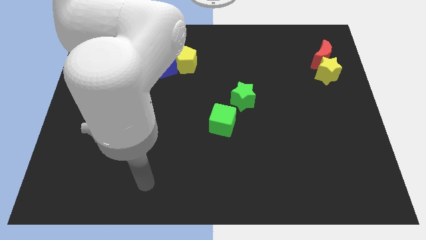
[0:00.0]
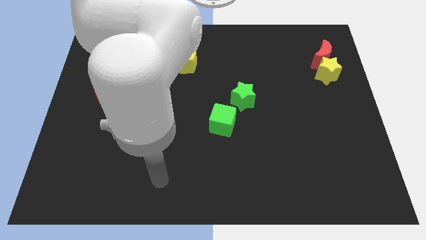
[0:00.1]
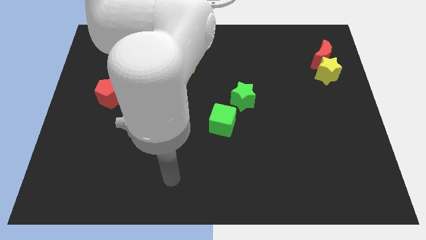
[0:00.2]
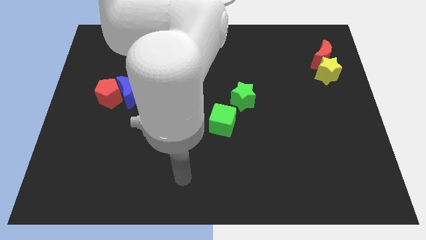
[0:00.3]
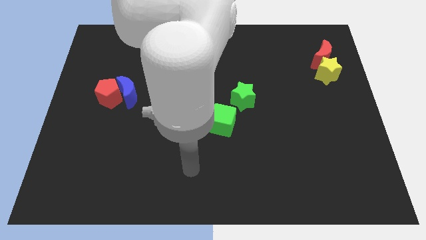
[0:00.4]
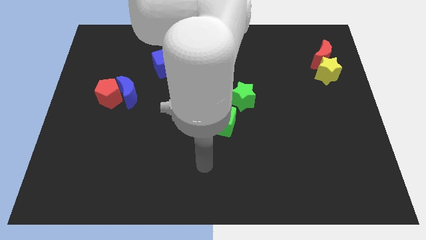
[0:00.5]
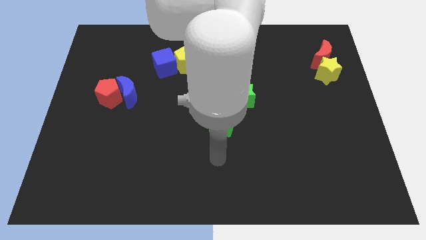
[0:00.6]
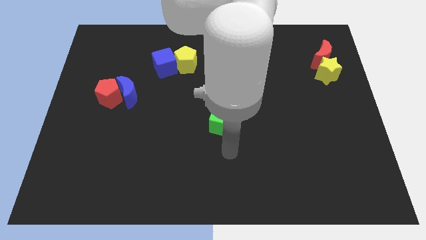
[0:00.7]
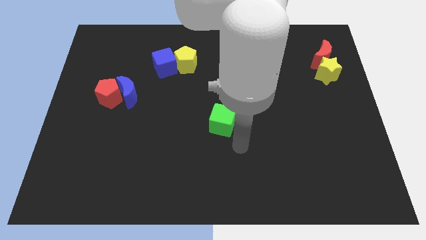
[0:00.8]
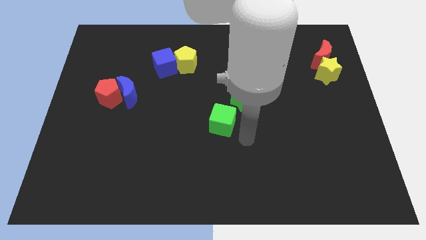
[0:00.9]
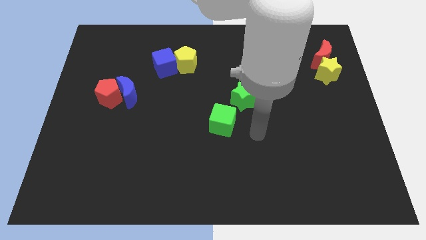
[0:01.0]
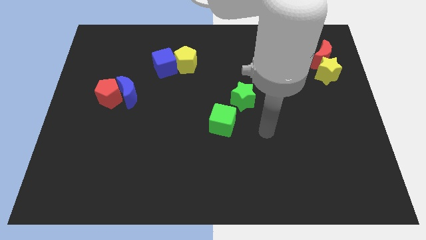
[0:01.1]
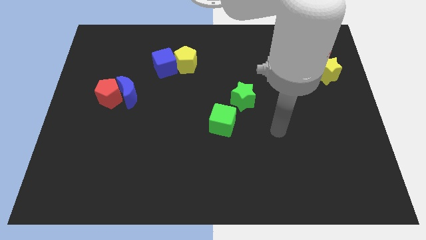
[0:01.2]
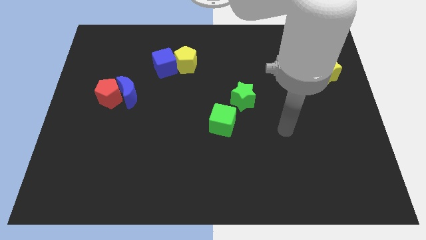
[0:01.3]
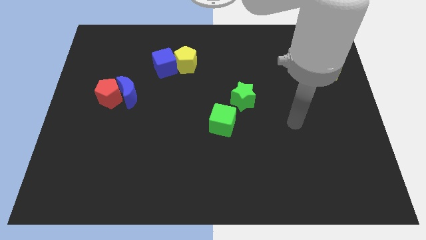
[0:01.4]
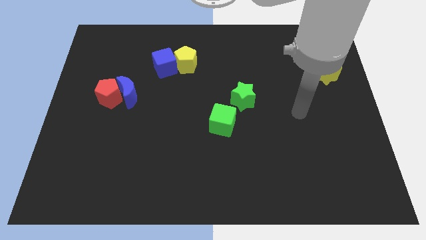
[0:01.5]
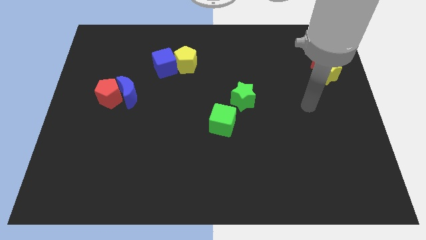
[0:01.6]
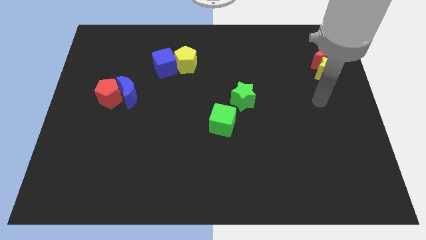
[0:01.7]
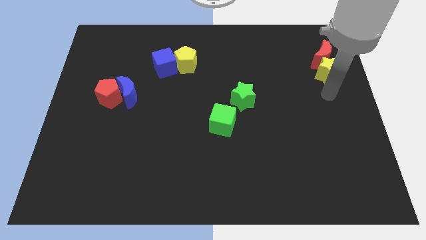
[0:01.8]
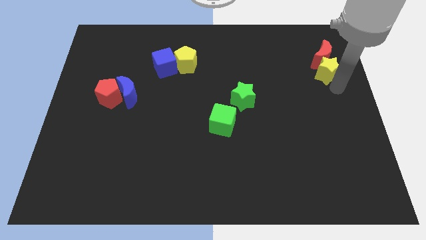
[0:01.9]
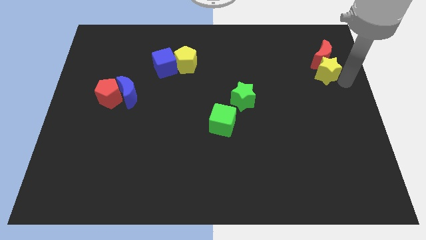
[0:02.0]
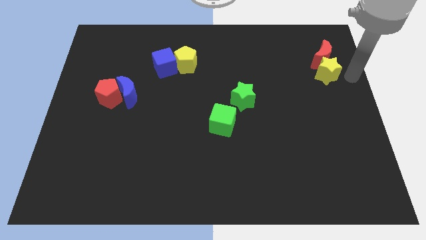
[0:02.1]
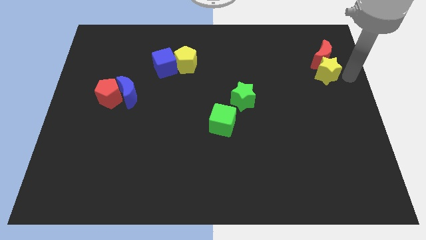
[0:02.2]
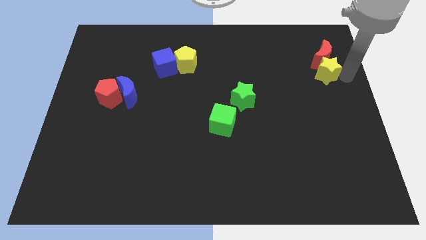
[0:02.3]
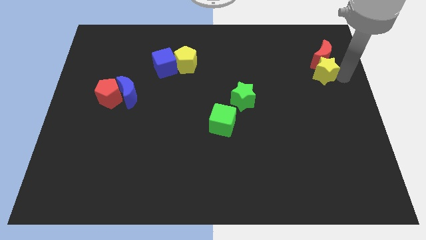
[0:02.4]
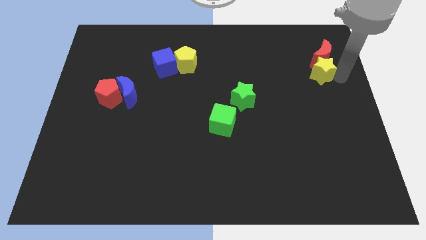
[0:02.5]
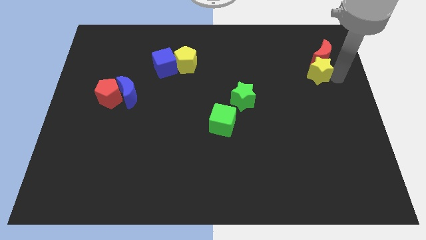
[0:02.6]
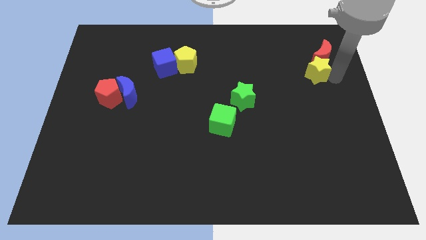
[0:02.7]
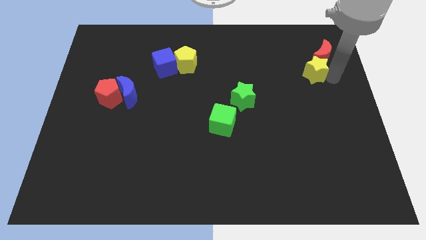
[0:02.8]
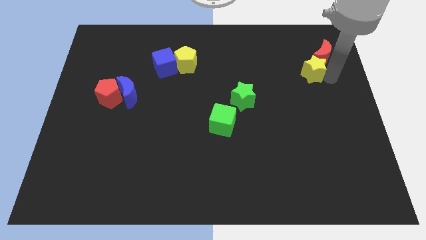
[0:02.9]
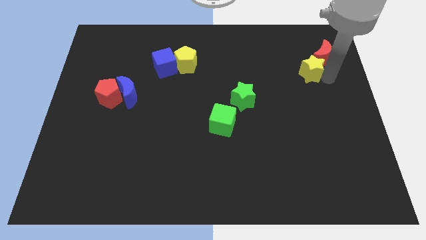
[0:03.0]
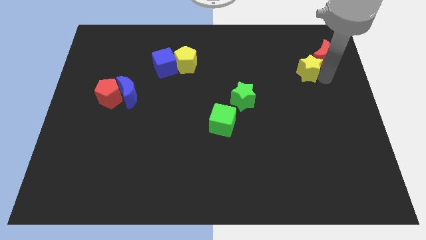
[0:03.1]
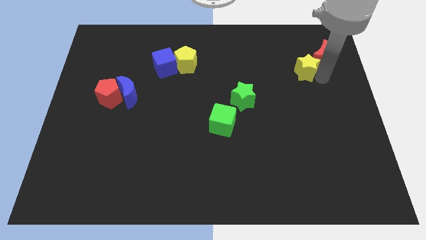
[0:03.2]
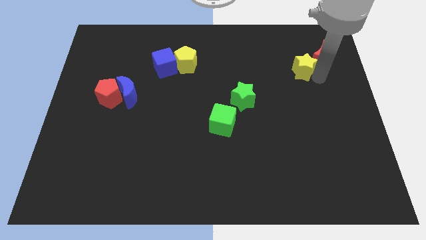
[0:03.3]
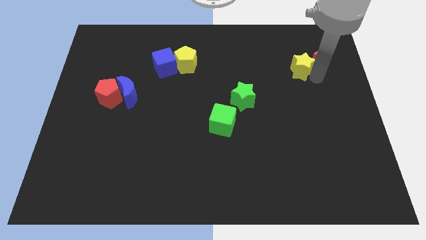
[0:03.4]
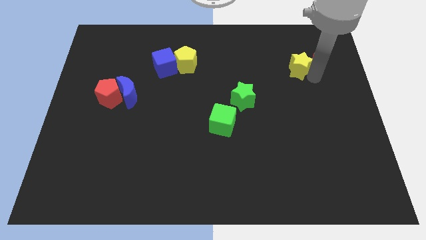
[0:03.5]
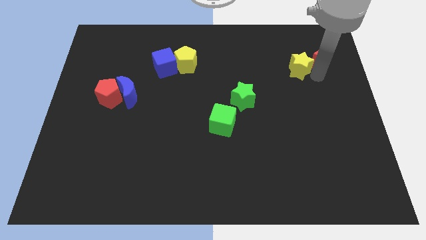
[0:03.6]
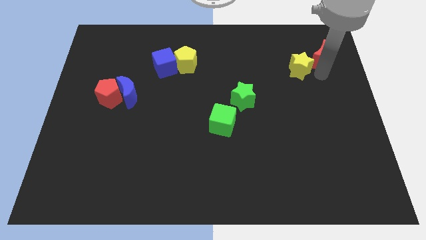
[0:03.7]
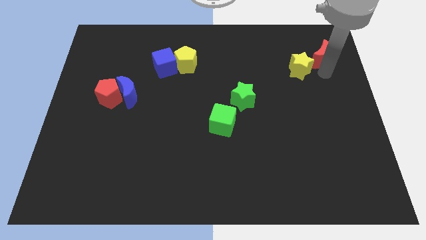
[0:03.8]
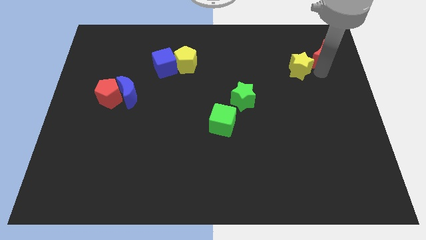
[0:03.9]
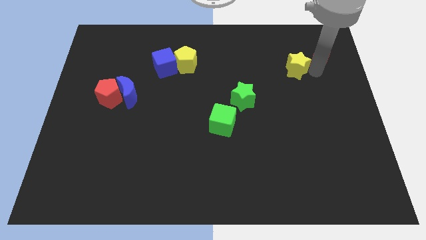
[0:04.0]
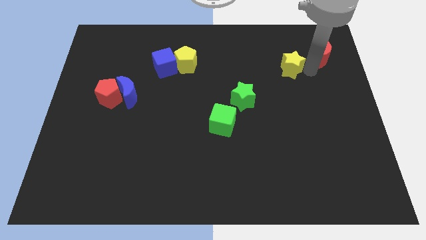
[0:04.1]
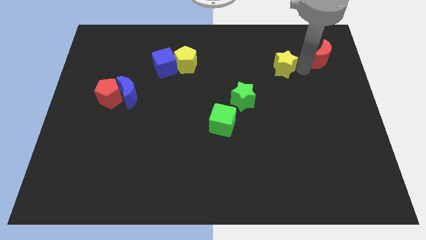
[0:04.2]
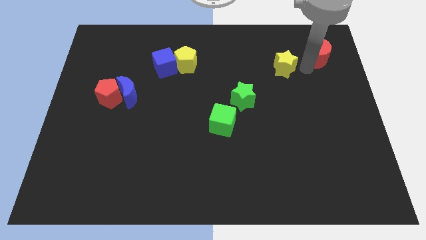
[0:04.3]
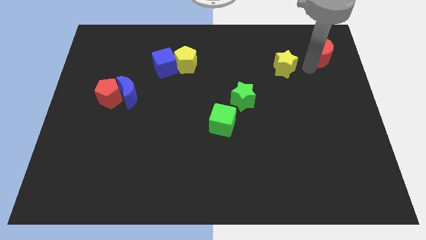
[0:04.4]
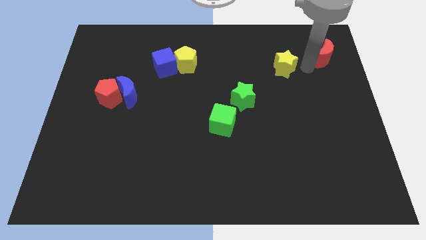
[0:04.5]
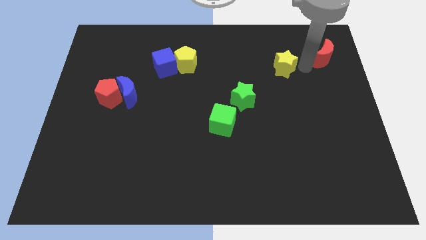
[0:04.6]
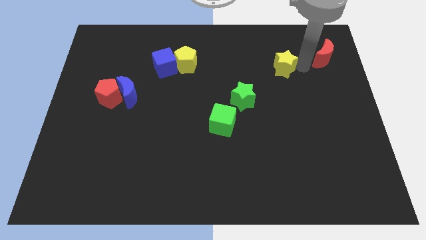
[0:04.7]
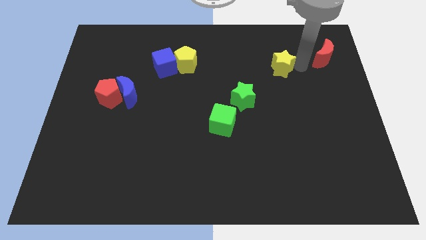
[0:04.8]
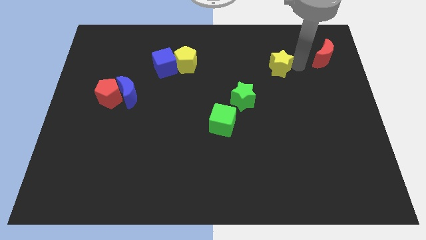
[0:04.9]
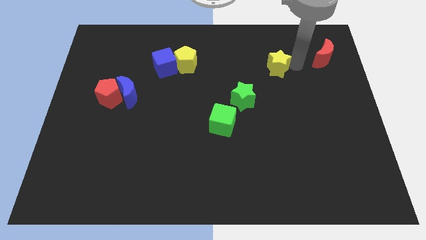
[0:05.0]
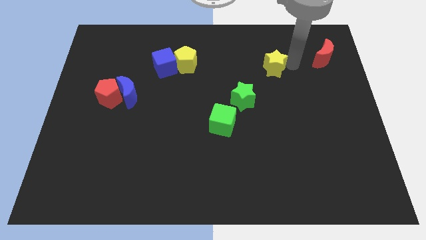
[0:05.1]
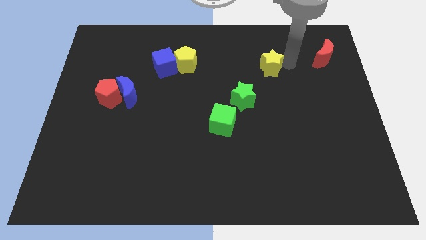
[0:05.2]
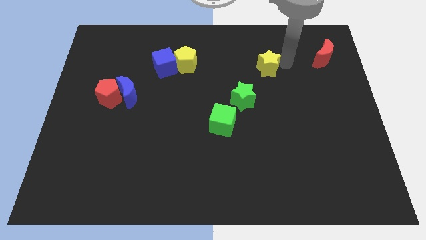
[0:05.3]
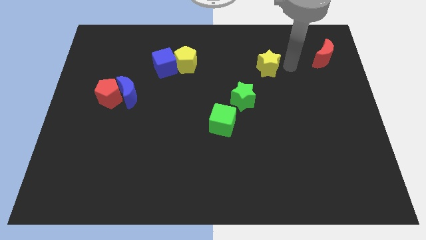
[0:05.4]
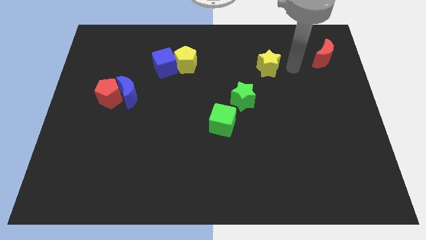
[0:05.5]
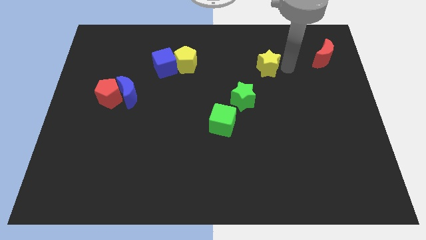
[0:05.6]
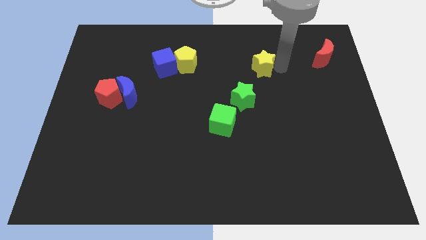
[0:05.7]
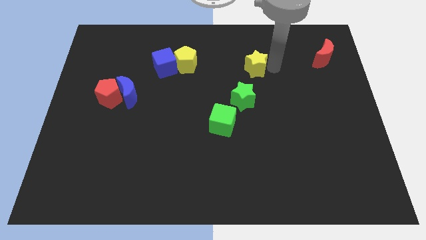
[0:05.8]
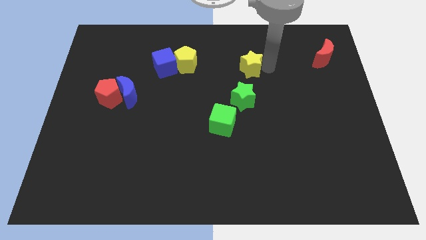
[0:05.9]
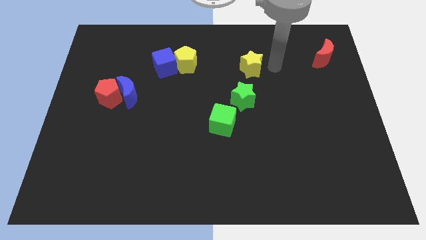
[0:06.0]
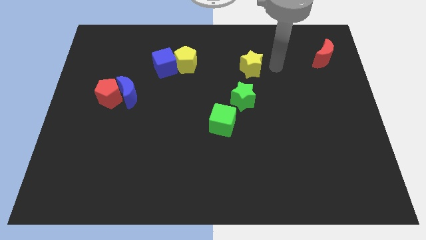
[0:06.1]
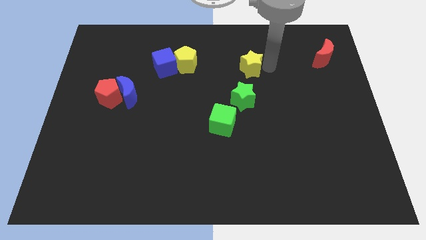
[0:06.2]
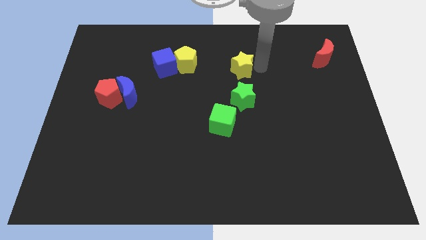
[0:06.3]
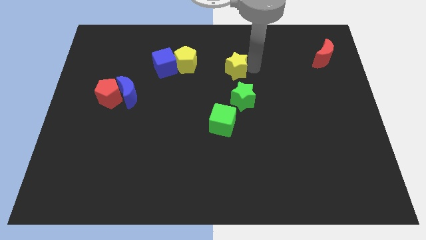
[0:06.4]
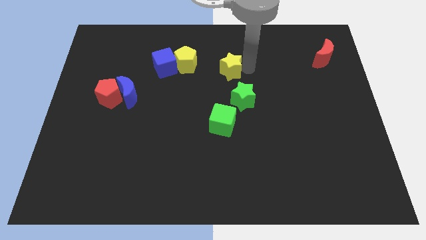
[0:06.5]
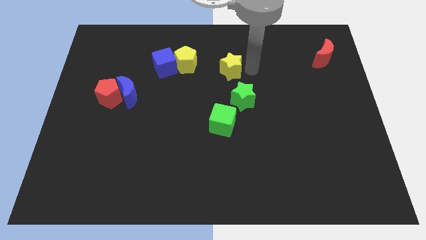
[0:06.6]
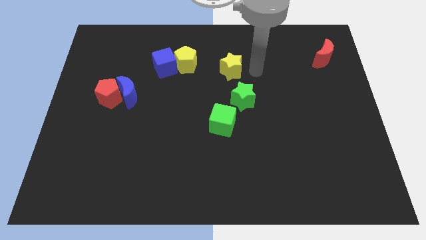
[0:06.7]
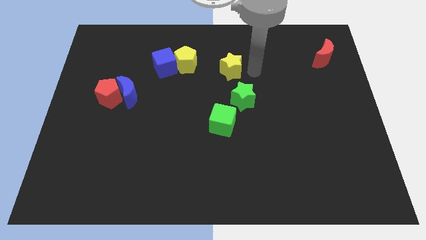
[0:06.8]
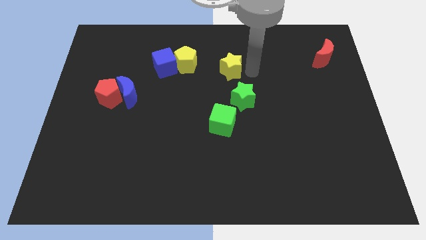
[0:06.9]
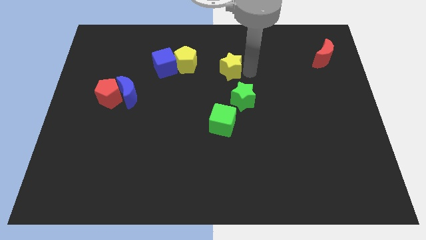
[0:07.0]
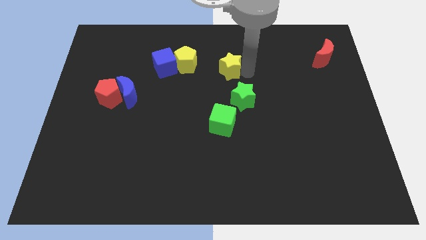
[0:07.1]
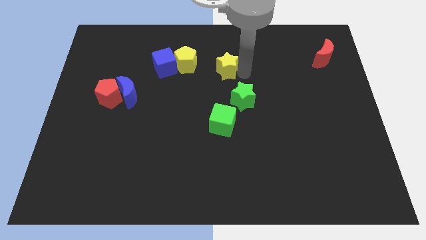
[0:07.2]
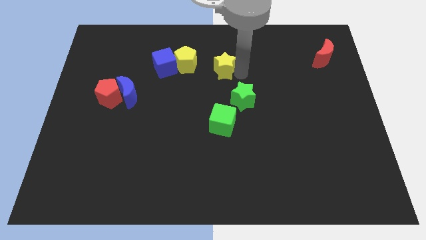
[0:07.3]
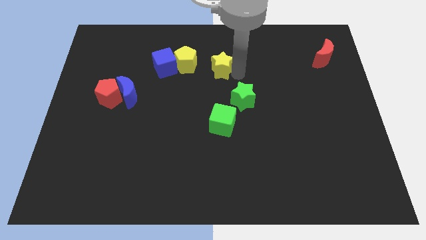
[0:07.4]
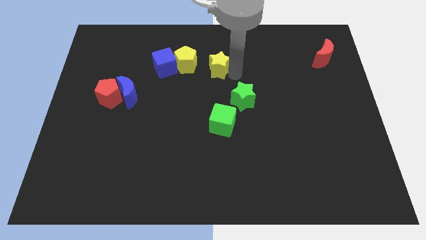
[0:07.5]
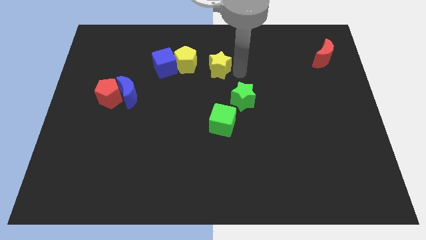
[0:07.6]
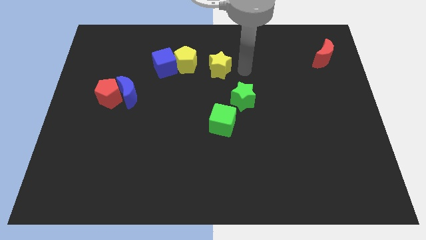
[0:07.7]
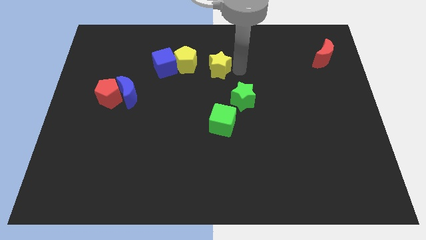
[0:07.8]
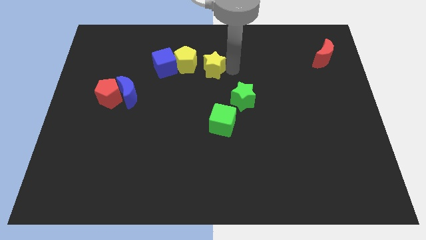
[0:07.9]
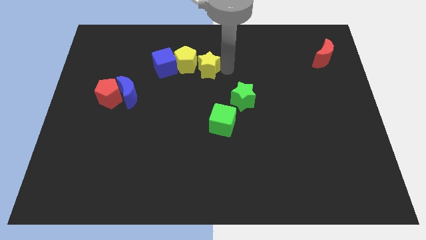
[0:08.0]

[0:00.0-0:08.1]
put the yellow star to the yellow pentagon
